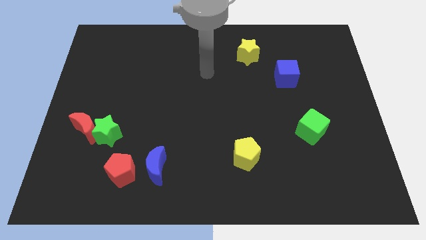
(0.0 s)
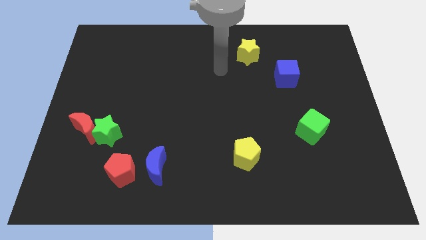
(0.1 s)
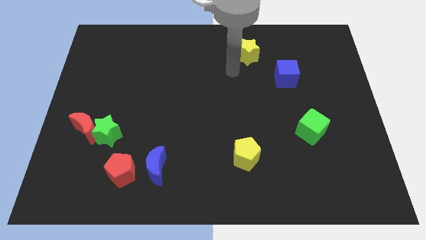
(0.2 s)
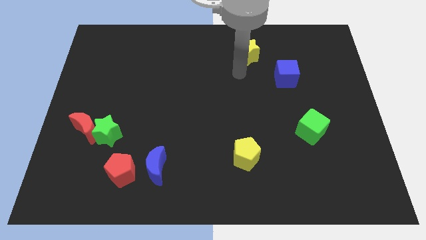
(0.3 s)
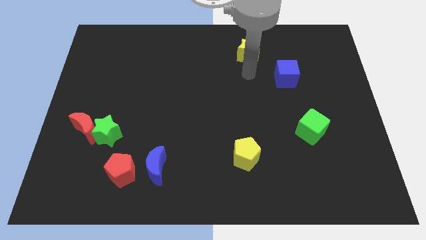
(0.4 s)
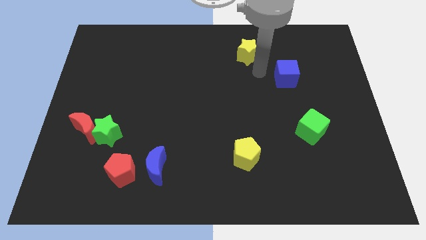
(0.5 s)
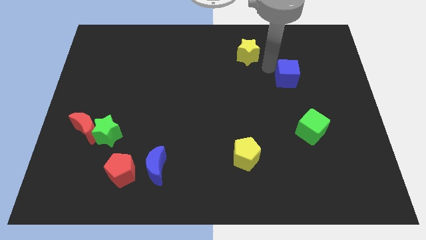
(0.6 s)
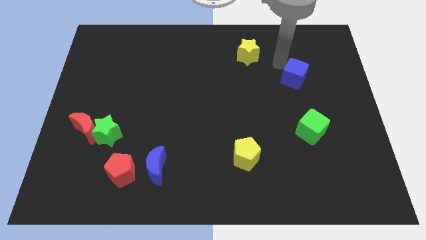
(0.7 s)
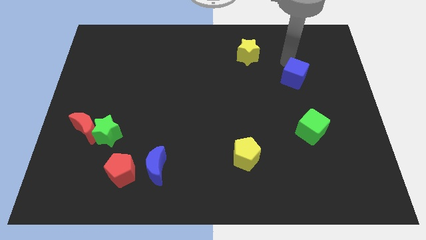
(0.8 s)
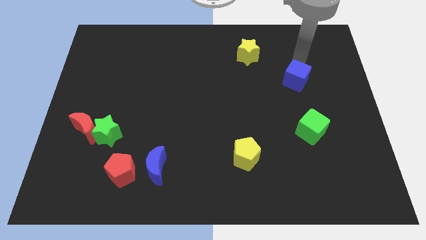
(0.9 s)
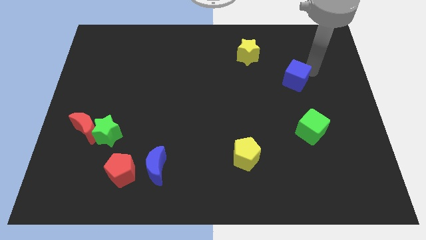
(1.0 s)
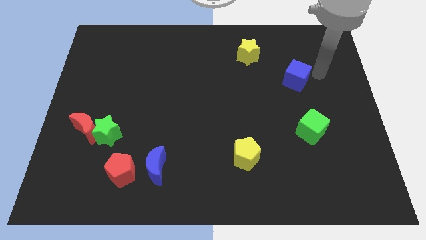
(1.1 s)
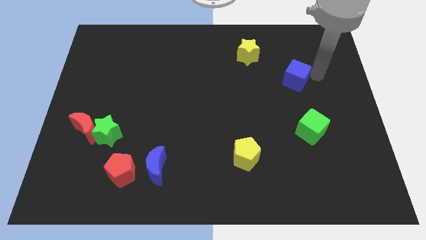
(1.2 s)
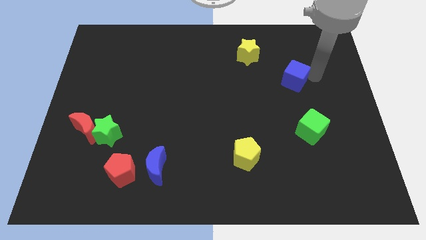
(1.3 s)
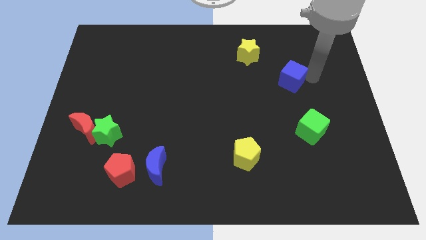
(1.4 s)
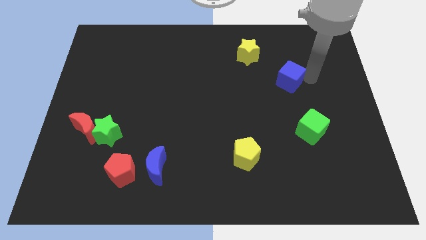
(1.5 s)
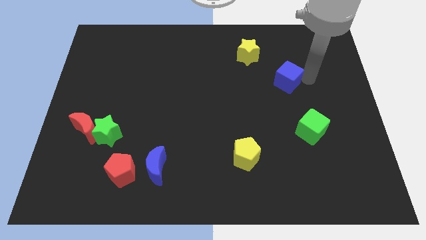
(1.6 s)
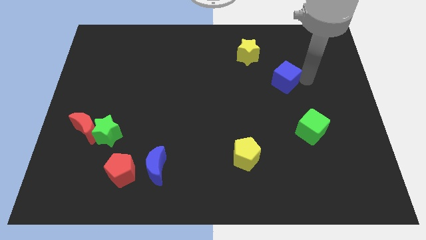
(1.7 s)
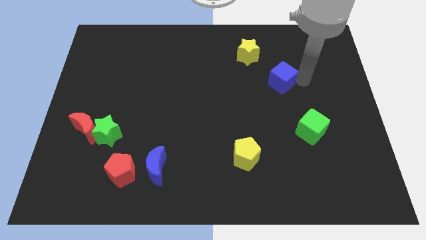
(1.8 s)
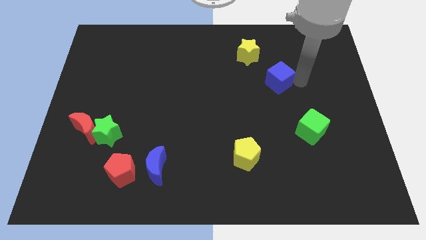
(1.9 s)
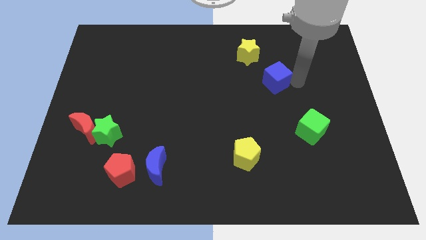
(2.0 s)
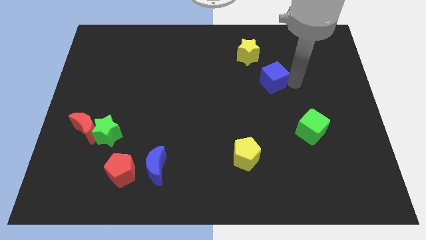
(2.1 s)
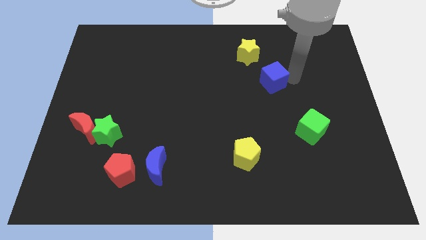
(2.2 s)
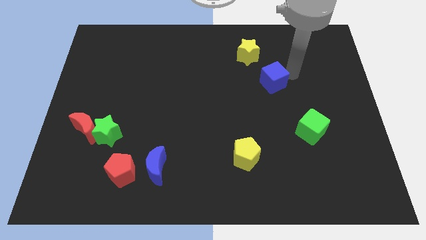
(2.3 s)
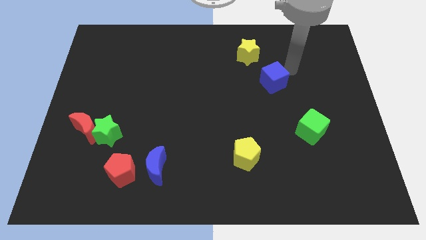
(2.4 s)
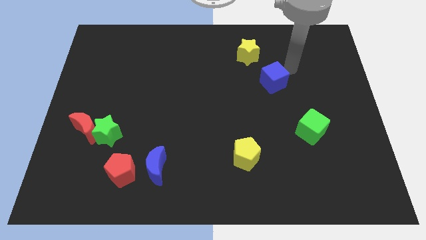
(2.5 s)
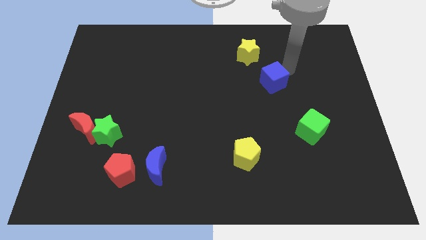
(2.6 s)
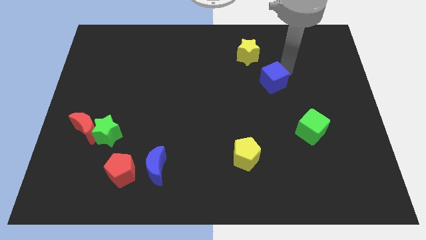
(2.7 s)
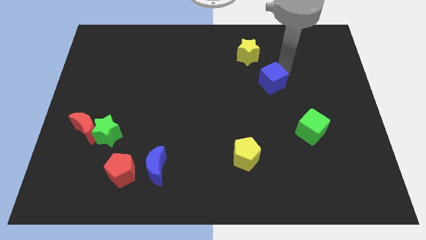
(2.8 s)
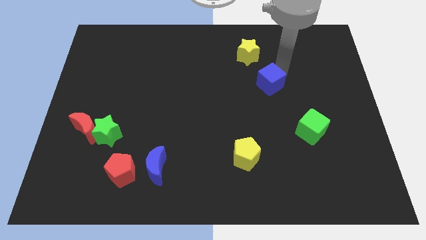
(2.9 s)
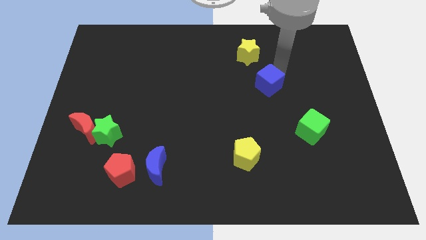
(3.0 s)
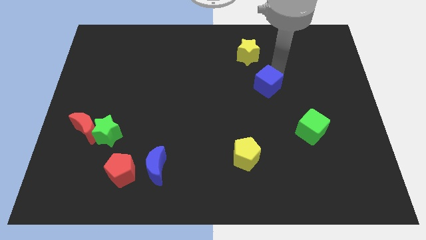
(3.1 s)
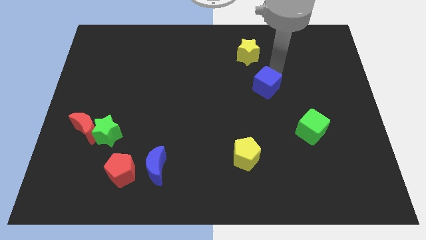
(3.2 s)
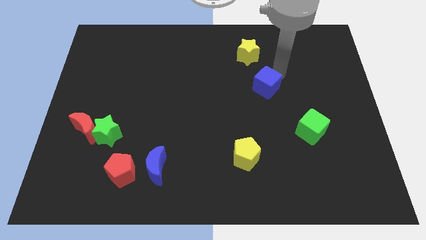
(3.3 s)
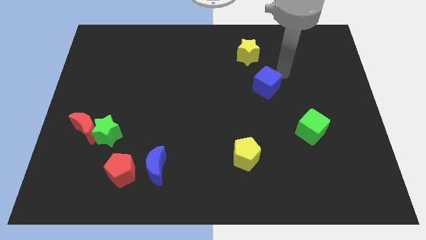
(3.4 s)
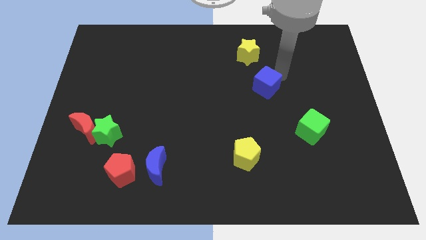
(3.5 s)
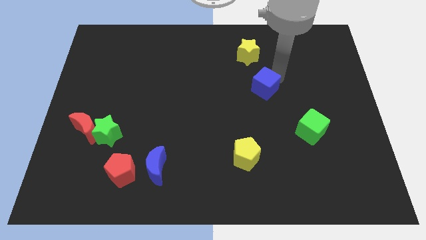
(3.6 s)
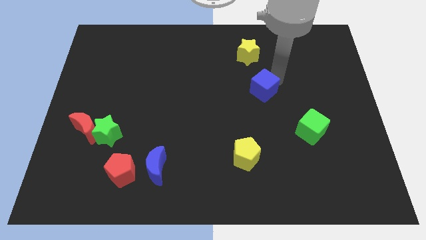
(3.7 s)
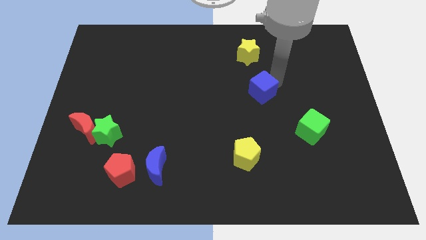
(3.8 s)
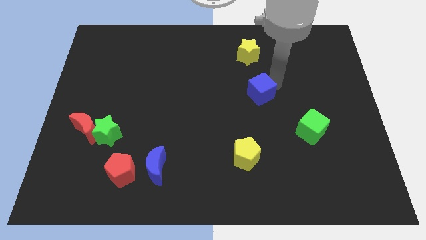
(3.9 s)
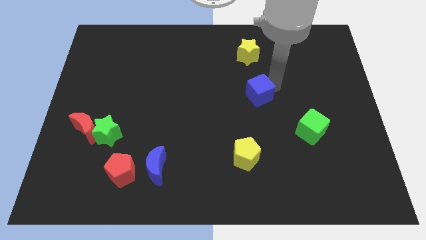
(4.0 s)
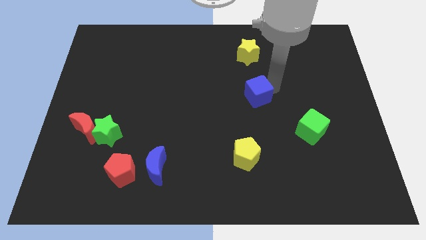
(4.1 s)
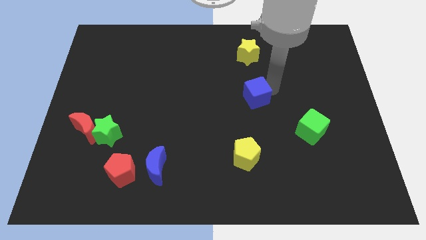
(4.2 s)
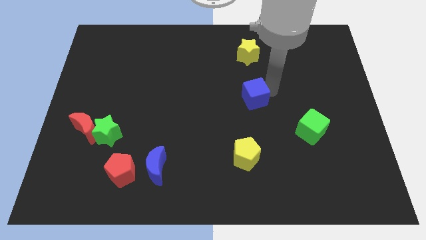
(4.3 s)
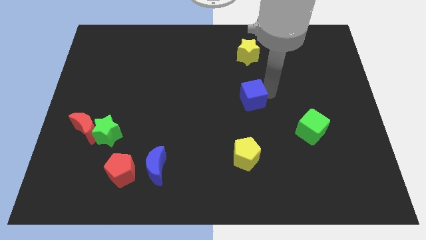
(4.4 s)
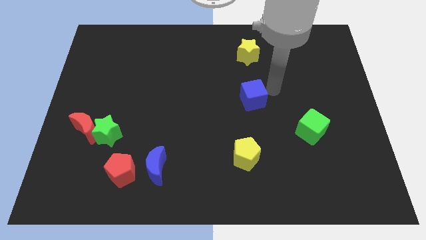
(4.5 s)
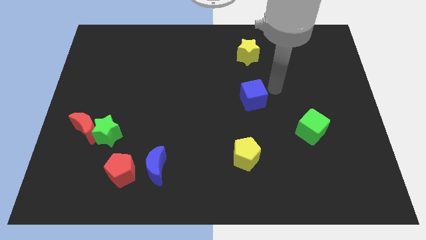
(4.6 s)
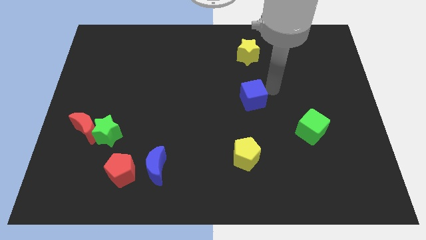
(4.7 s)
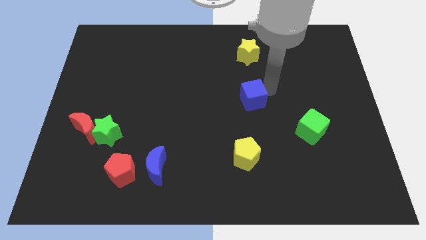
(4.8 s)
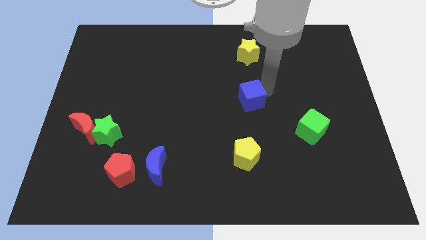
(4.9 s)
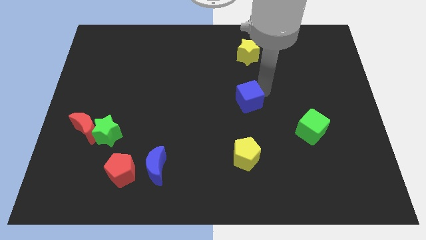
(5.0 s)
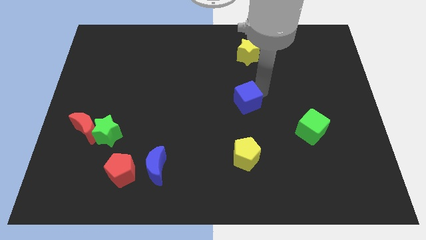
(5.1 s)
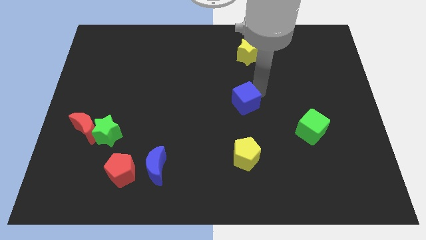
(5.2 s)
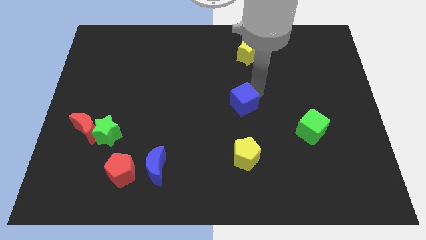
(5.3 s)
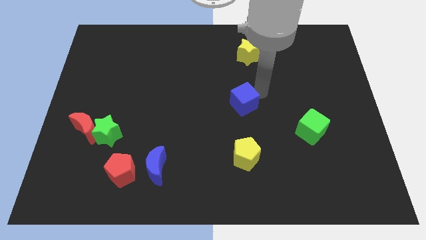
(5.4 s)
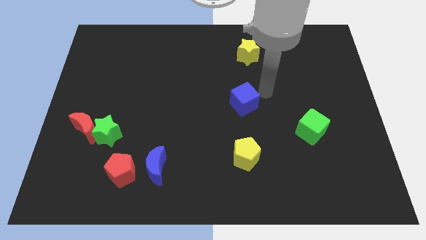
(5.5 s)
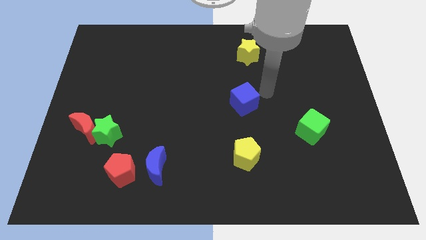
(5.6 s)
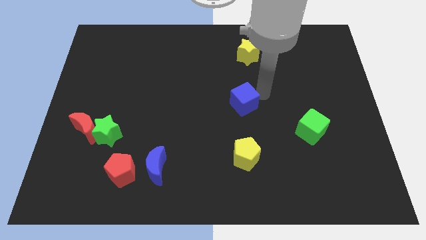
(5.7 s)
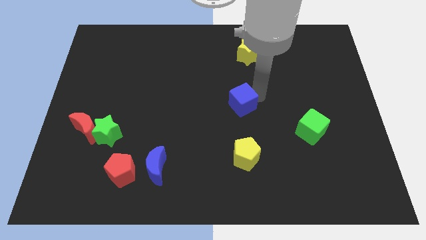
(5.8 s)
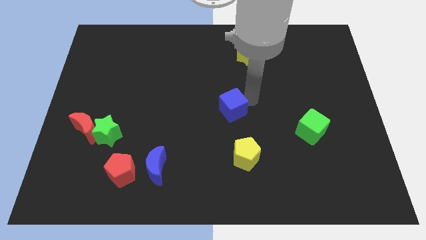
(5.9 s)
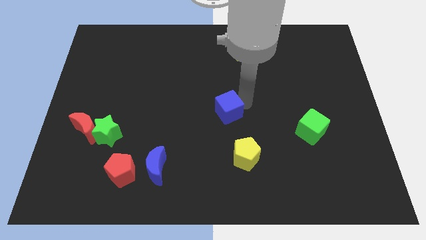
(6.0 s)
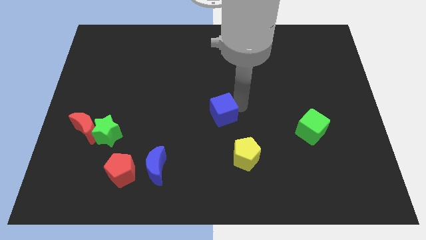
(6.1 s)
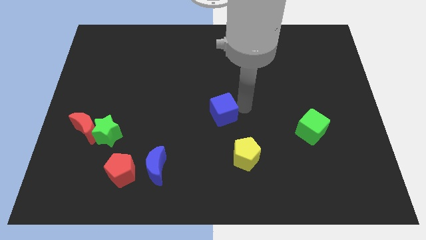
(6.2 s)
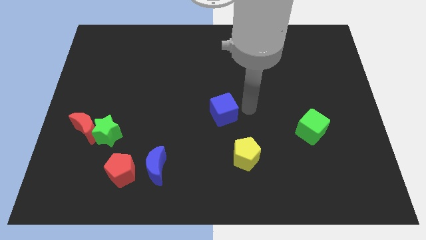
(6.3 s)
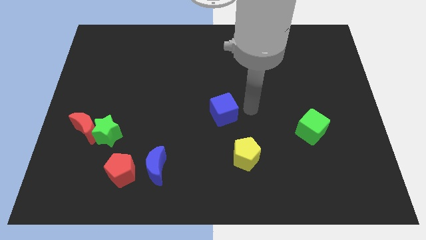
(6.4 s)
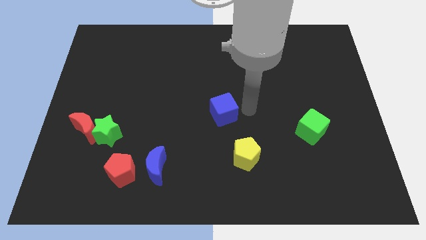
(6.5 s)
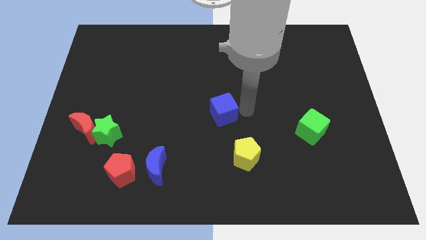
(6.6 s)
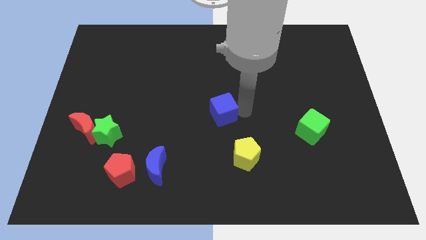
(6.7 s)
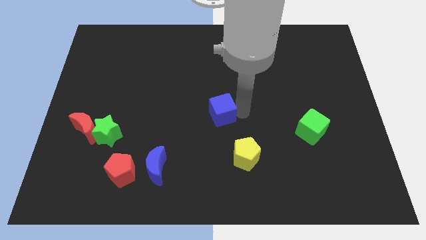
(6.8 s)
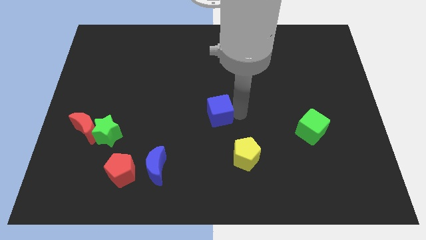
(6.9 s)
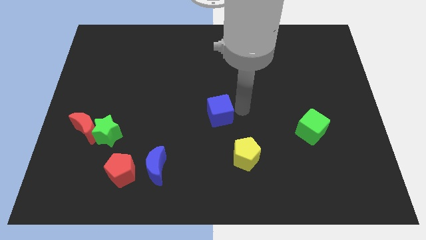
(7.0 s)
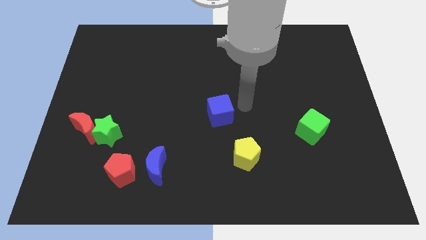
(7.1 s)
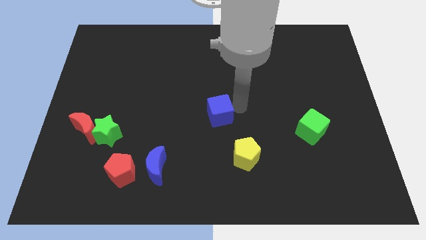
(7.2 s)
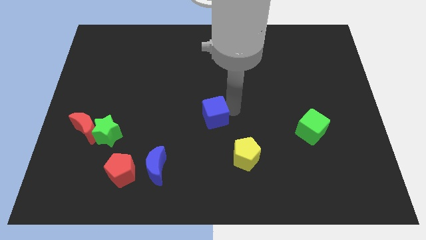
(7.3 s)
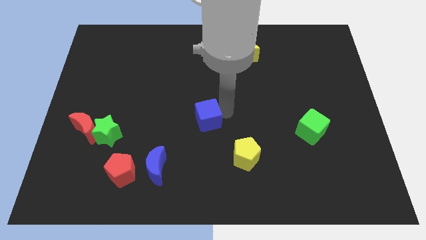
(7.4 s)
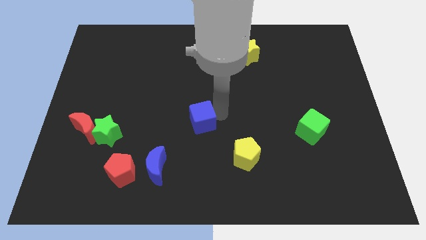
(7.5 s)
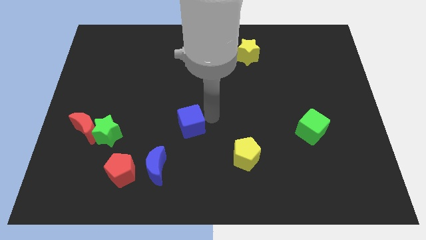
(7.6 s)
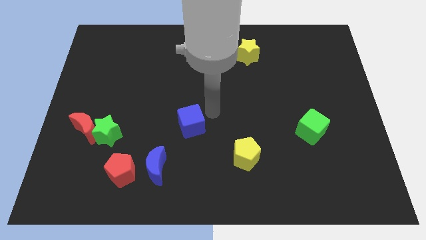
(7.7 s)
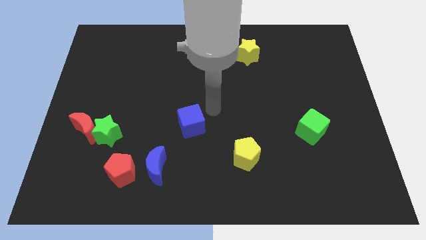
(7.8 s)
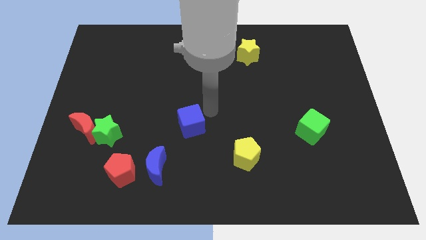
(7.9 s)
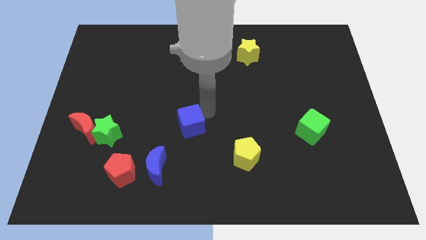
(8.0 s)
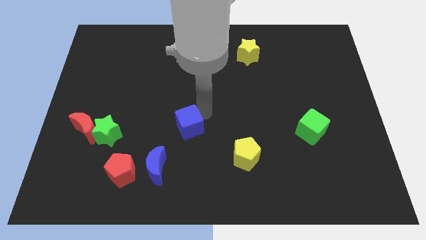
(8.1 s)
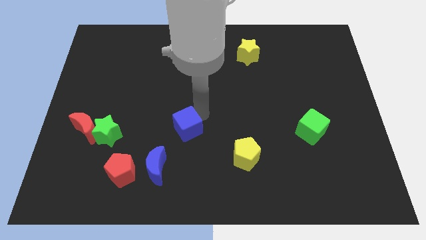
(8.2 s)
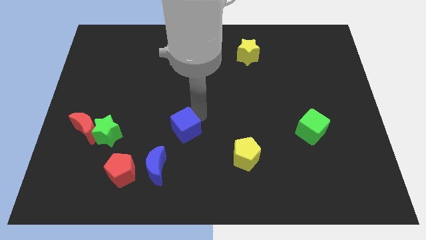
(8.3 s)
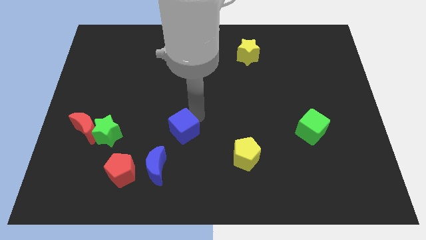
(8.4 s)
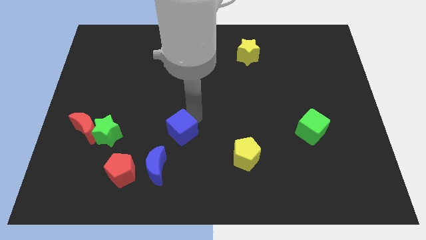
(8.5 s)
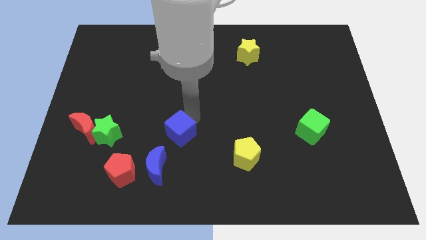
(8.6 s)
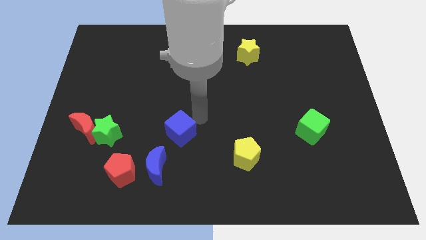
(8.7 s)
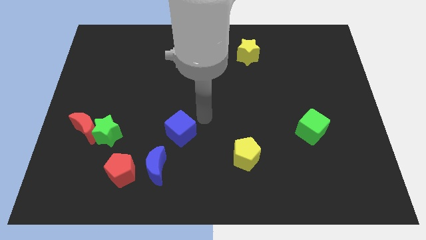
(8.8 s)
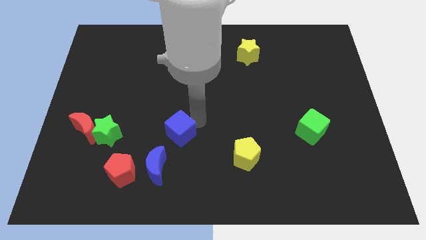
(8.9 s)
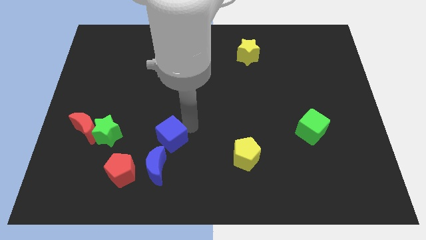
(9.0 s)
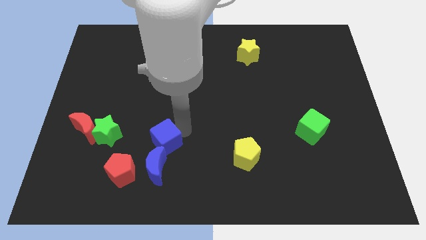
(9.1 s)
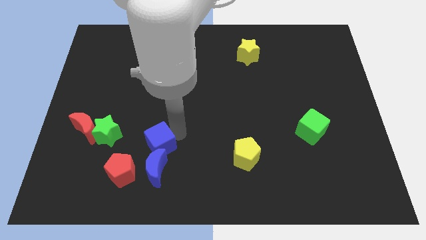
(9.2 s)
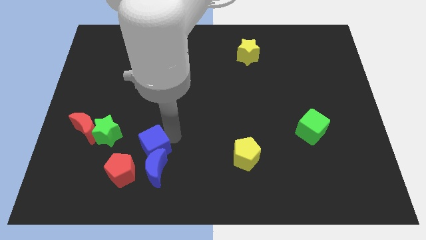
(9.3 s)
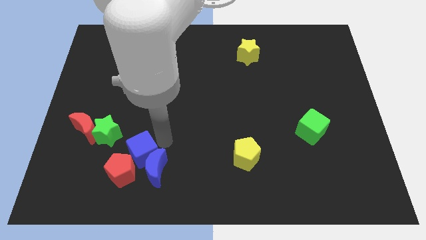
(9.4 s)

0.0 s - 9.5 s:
put the blue cube to the red pentagon
